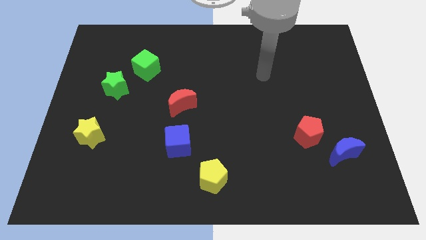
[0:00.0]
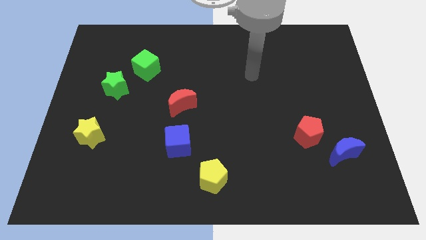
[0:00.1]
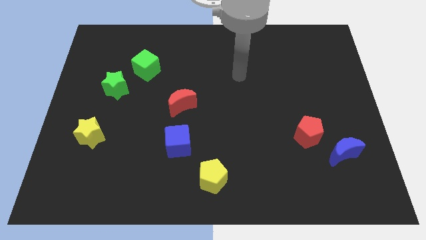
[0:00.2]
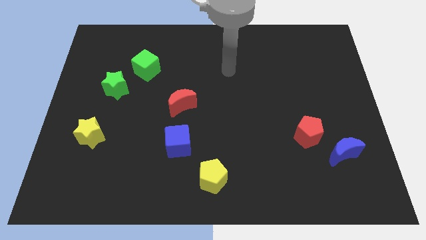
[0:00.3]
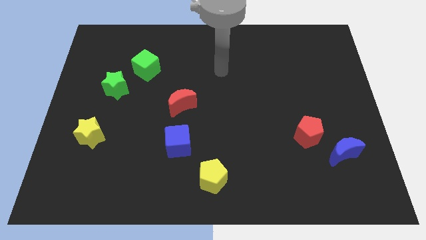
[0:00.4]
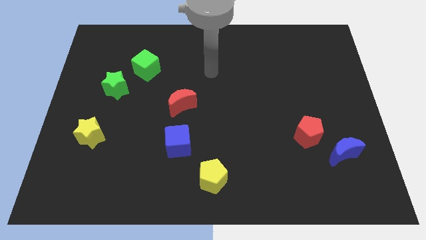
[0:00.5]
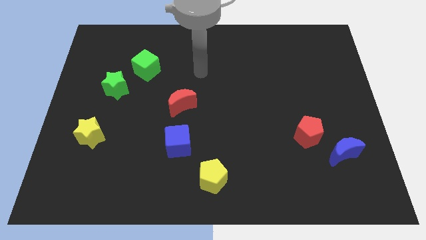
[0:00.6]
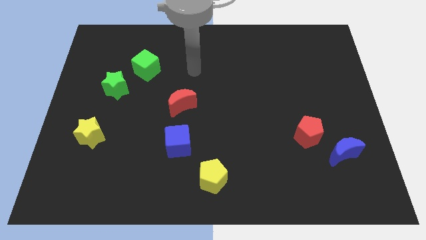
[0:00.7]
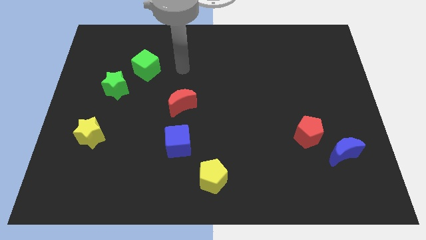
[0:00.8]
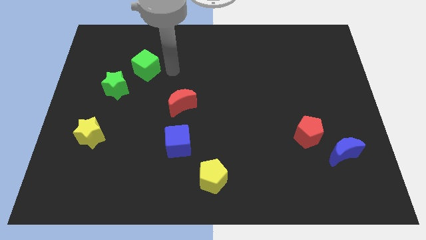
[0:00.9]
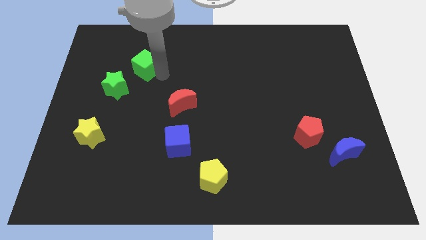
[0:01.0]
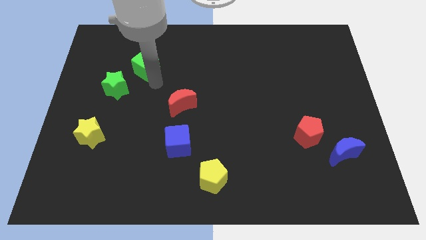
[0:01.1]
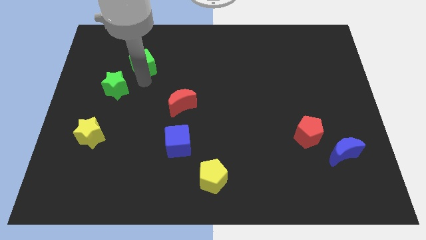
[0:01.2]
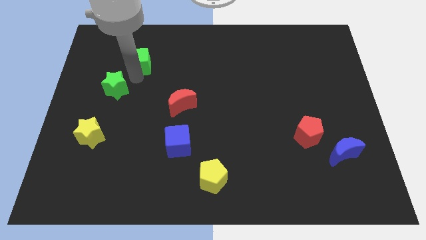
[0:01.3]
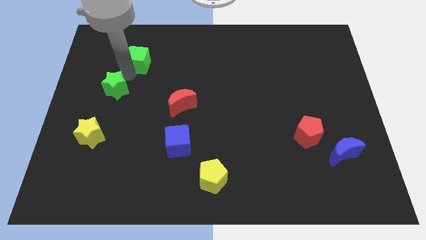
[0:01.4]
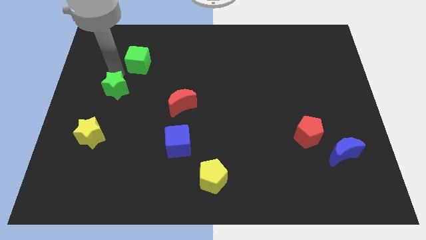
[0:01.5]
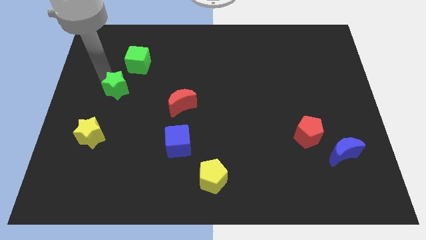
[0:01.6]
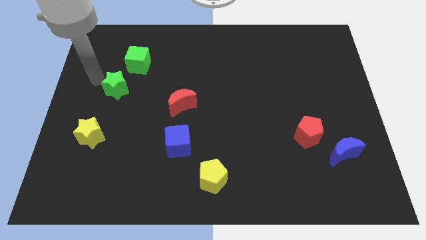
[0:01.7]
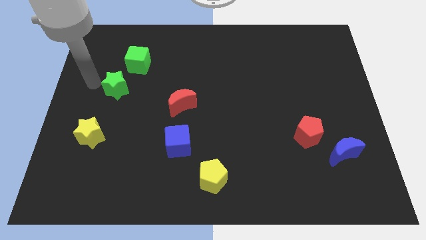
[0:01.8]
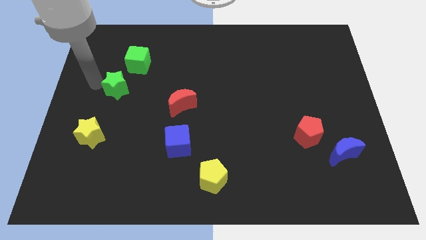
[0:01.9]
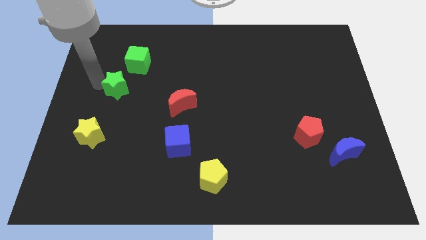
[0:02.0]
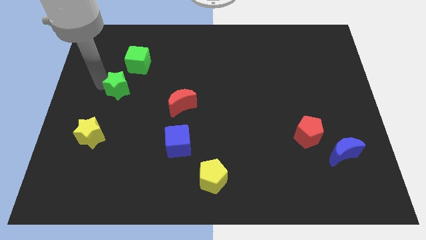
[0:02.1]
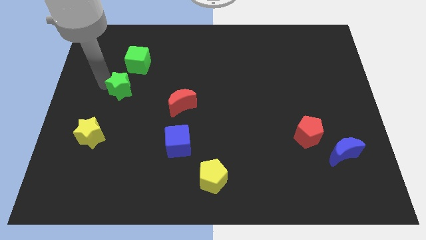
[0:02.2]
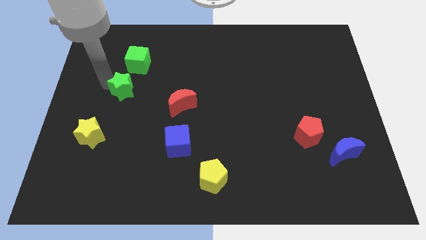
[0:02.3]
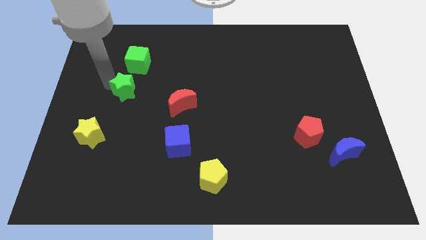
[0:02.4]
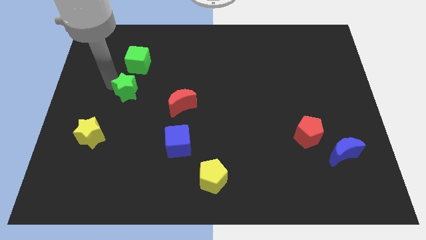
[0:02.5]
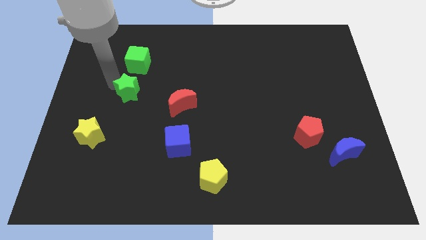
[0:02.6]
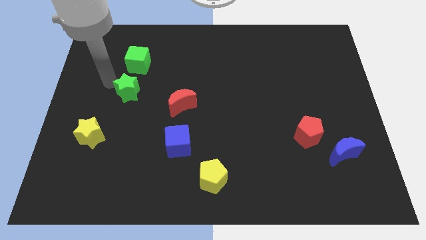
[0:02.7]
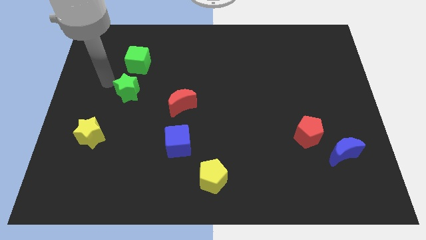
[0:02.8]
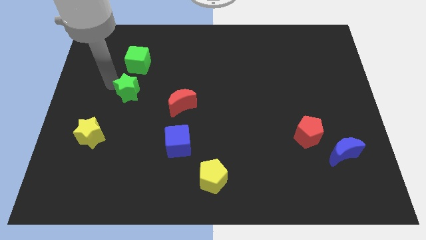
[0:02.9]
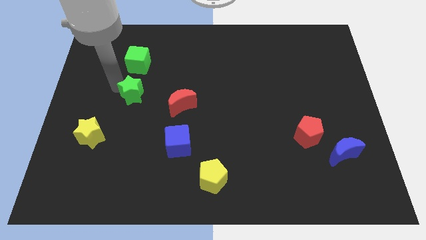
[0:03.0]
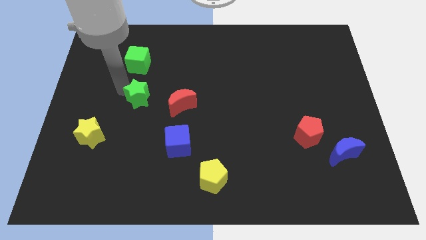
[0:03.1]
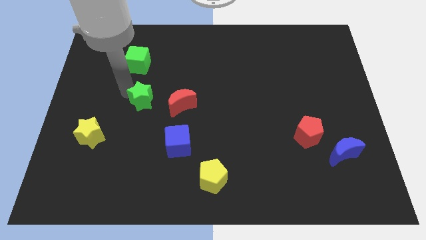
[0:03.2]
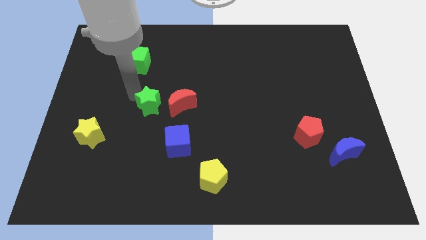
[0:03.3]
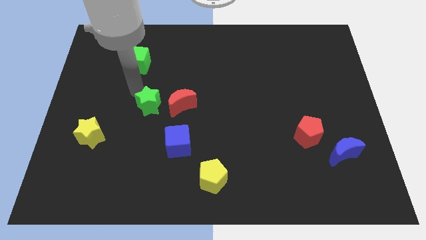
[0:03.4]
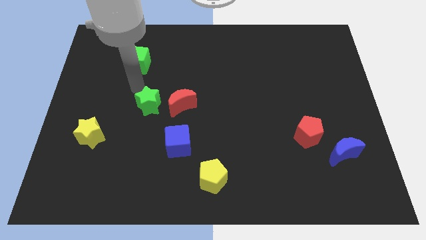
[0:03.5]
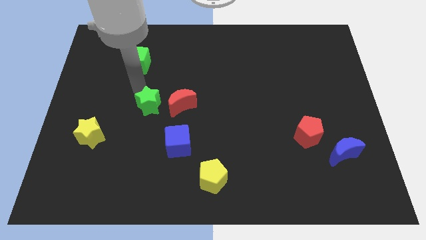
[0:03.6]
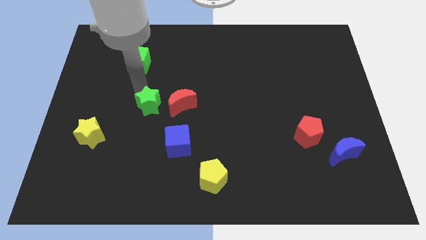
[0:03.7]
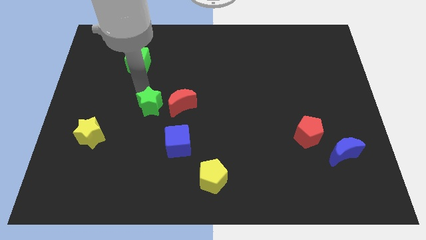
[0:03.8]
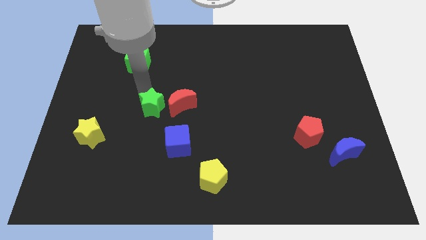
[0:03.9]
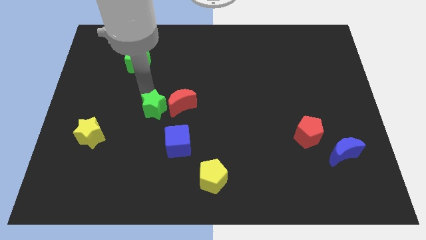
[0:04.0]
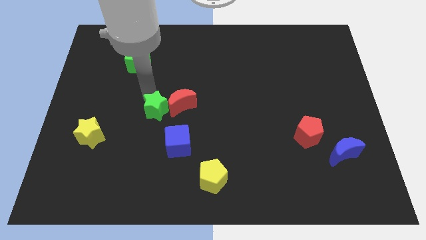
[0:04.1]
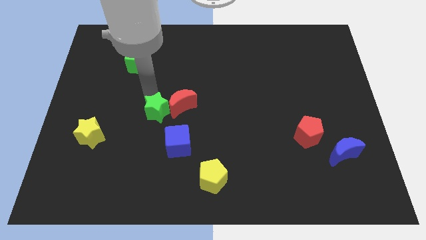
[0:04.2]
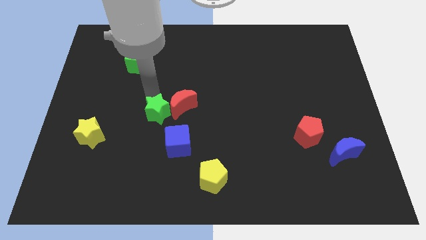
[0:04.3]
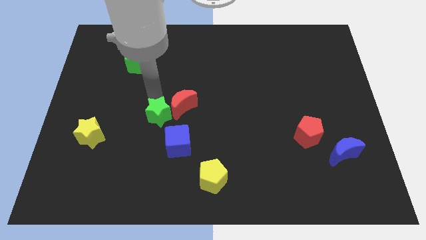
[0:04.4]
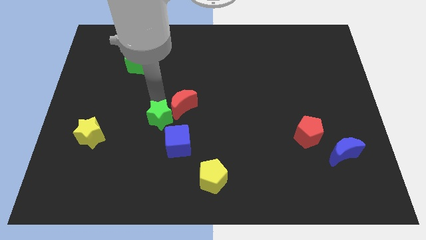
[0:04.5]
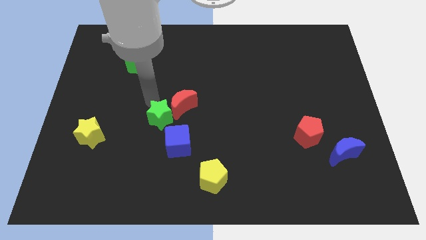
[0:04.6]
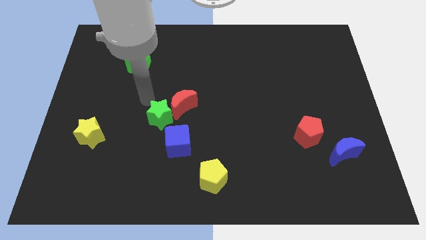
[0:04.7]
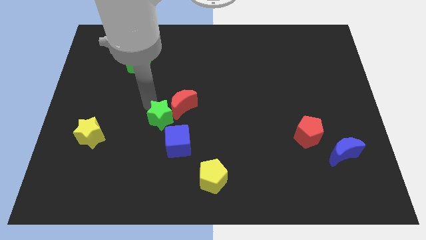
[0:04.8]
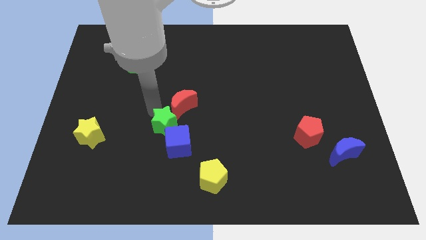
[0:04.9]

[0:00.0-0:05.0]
push the green star to the blue cube

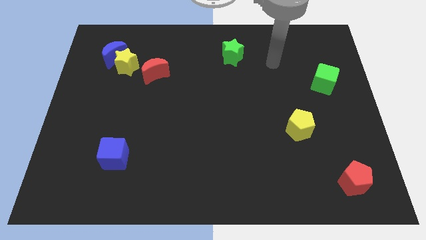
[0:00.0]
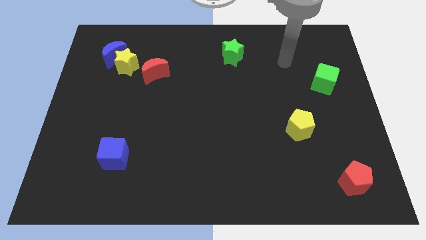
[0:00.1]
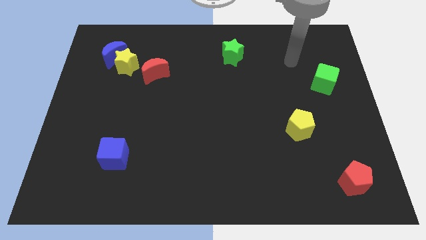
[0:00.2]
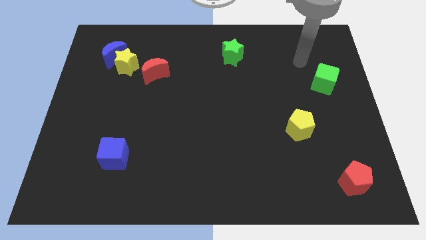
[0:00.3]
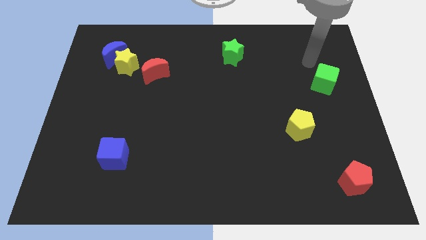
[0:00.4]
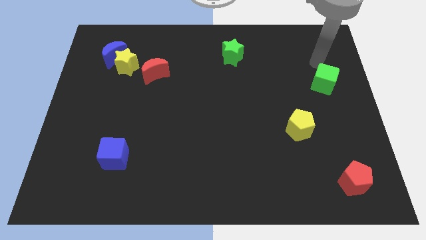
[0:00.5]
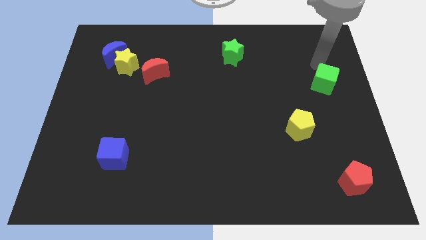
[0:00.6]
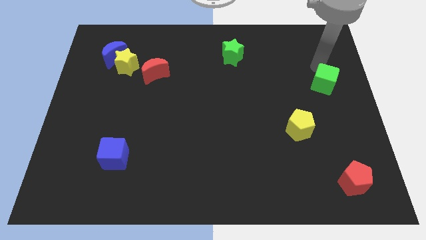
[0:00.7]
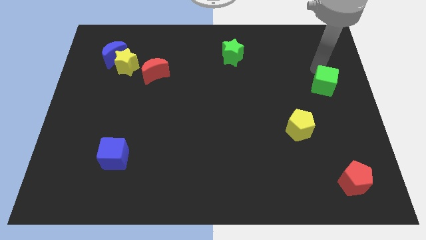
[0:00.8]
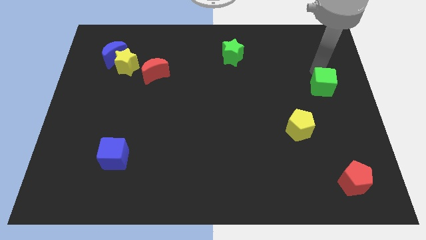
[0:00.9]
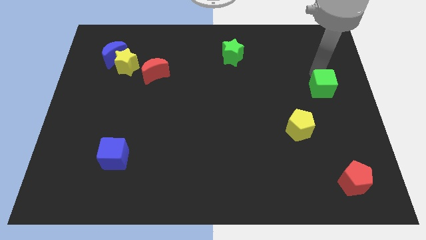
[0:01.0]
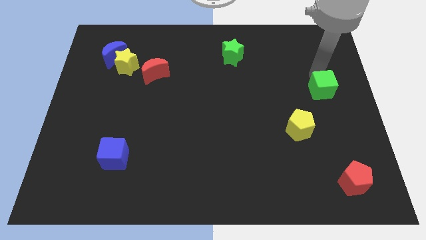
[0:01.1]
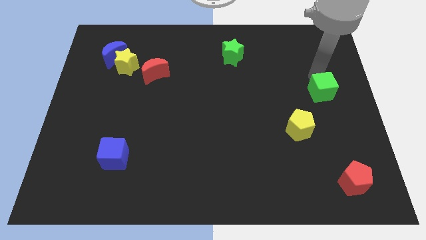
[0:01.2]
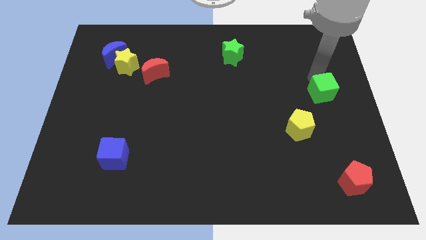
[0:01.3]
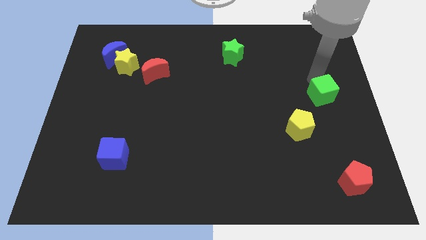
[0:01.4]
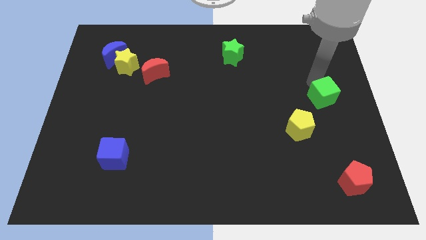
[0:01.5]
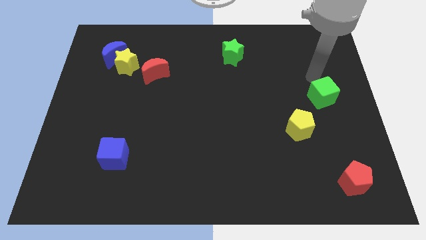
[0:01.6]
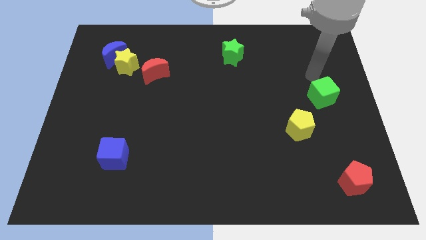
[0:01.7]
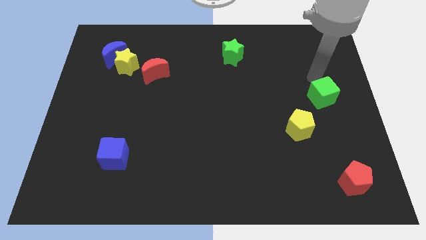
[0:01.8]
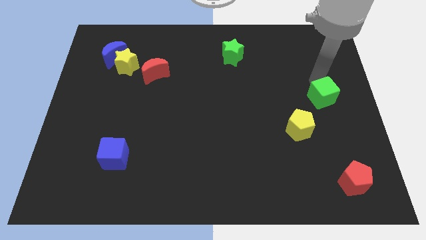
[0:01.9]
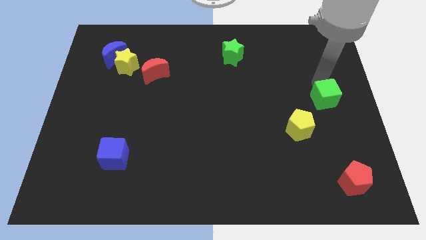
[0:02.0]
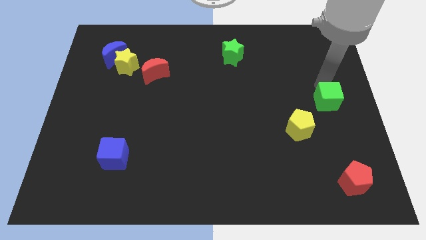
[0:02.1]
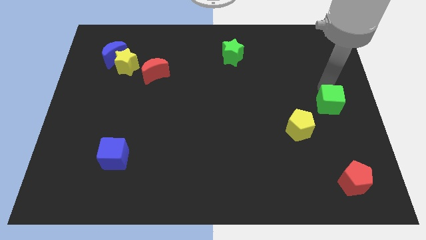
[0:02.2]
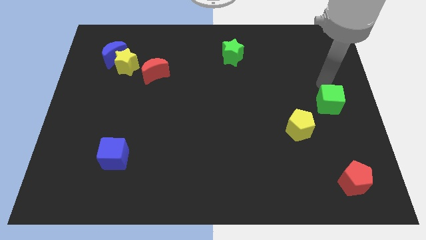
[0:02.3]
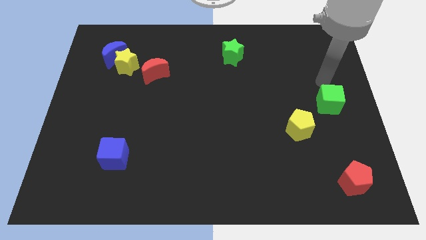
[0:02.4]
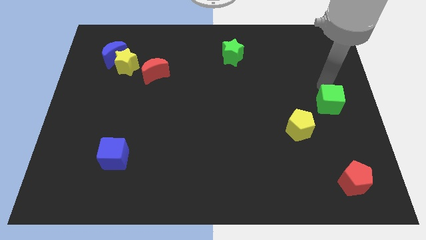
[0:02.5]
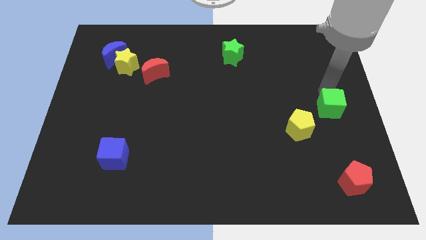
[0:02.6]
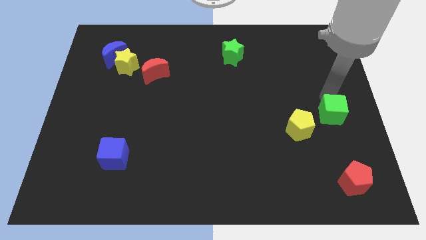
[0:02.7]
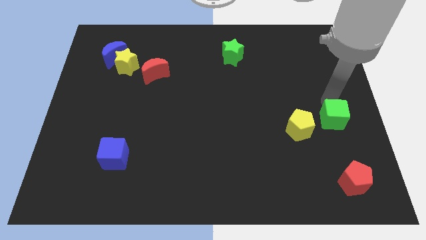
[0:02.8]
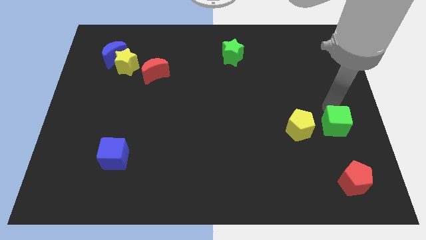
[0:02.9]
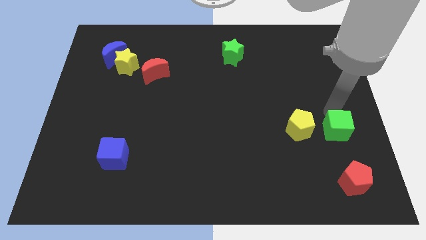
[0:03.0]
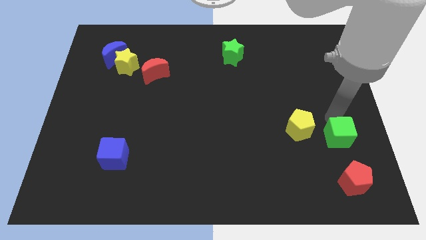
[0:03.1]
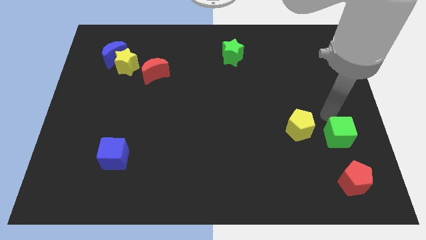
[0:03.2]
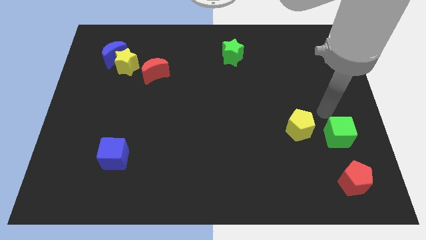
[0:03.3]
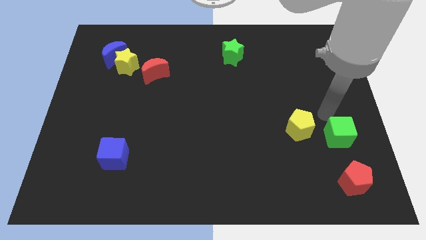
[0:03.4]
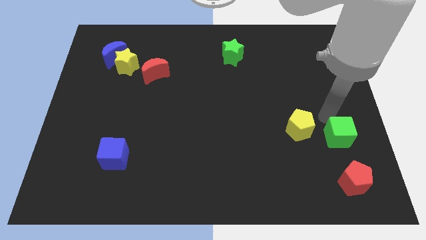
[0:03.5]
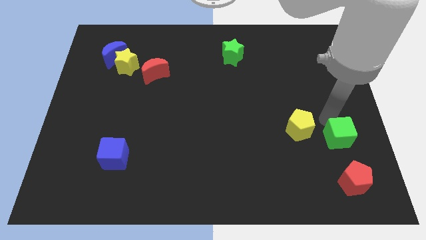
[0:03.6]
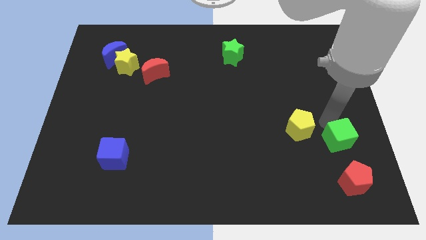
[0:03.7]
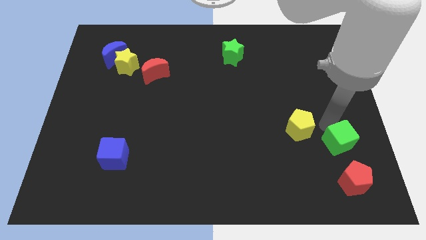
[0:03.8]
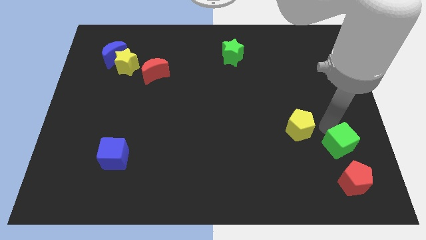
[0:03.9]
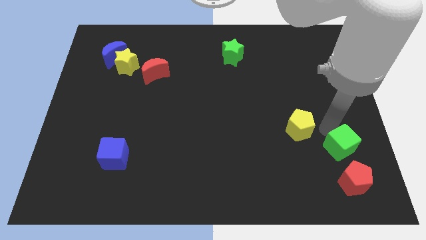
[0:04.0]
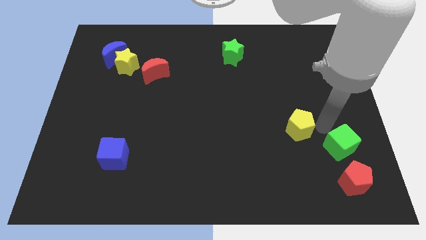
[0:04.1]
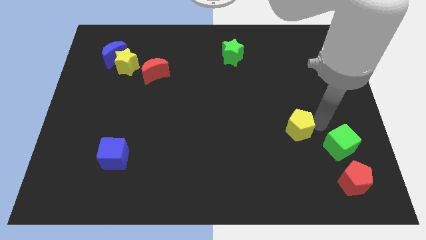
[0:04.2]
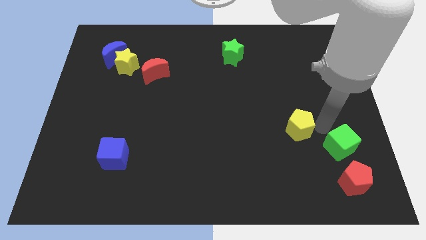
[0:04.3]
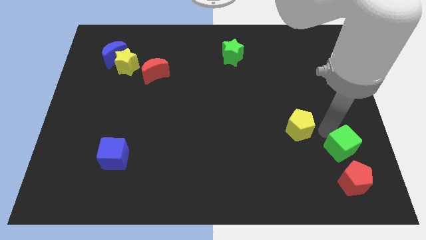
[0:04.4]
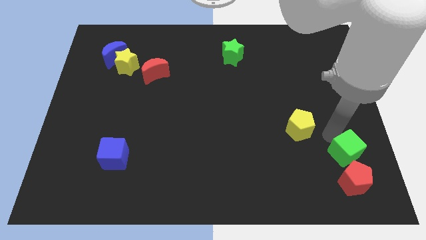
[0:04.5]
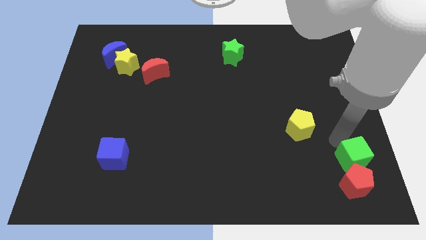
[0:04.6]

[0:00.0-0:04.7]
move the green cube towards the red pentagon
